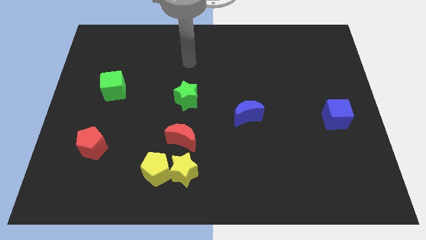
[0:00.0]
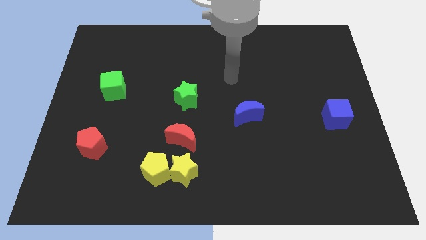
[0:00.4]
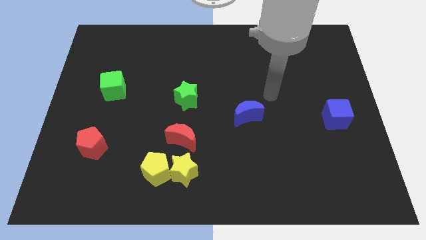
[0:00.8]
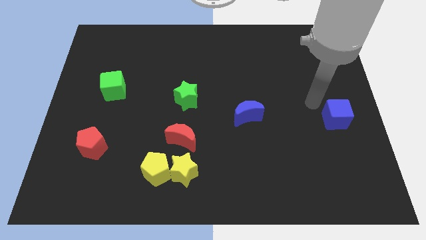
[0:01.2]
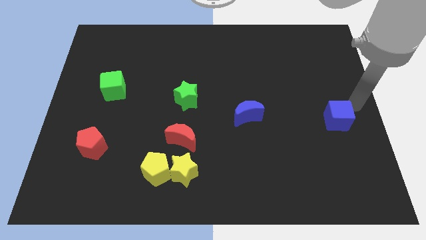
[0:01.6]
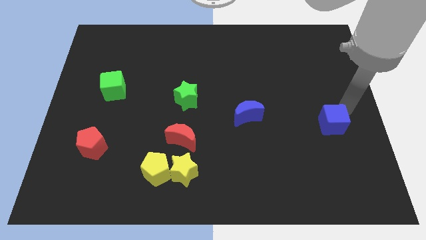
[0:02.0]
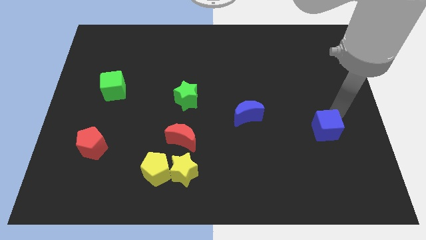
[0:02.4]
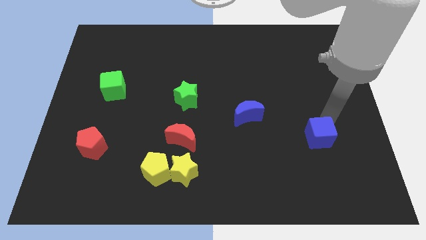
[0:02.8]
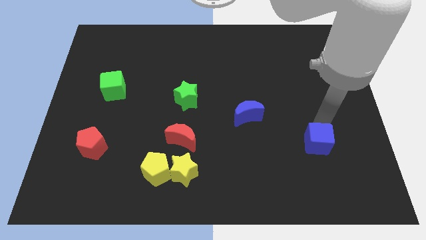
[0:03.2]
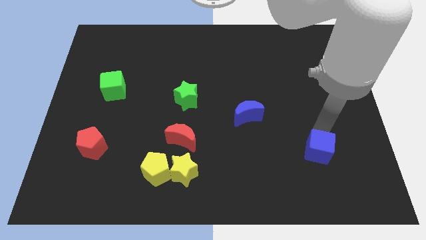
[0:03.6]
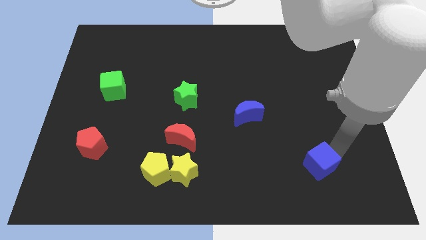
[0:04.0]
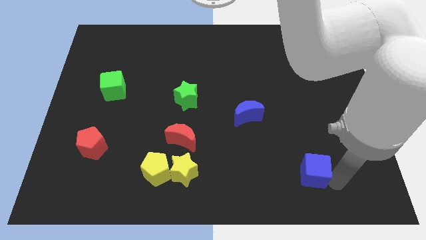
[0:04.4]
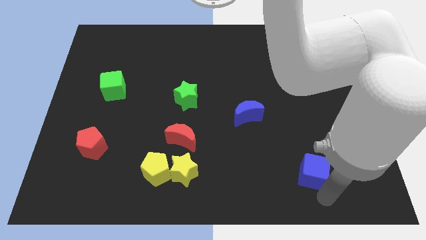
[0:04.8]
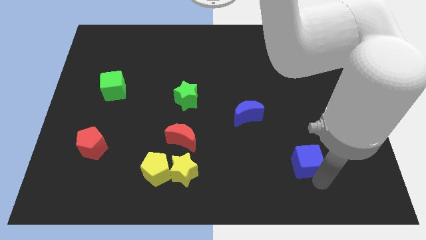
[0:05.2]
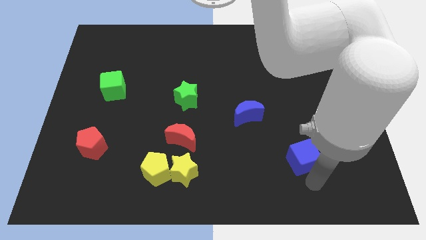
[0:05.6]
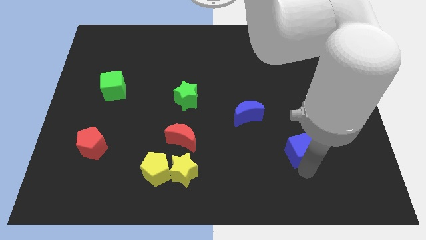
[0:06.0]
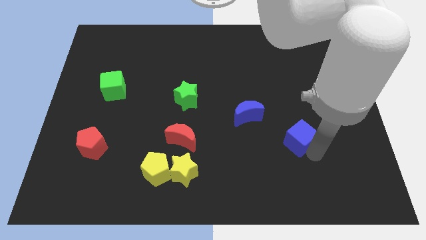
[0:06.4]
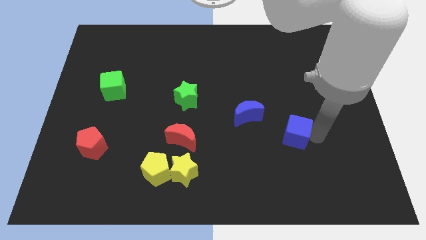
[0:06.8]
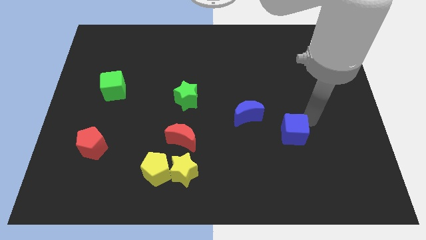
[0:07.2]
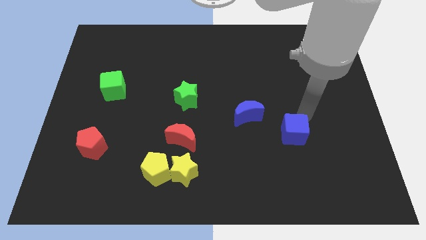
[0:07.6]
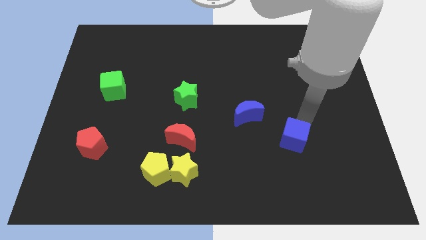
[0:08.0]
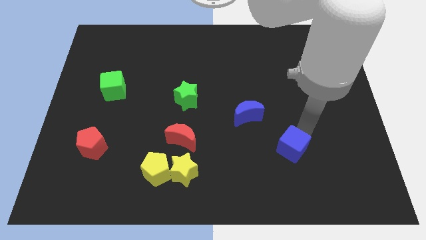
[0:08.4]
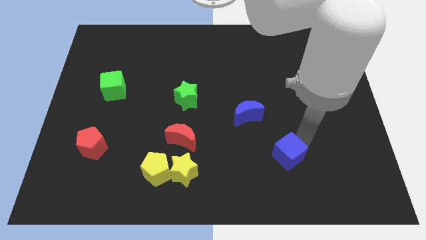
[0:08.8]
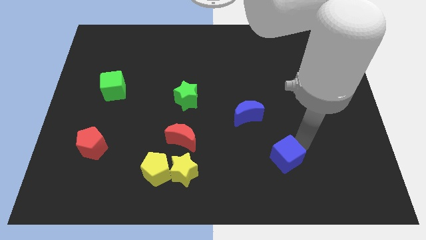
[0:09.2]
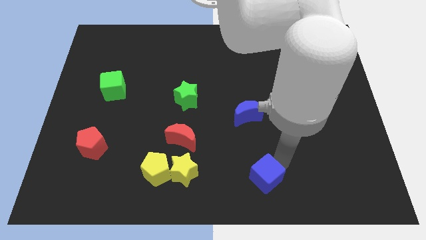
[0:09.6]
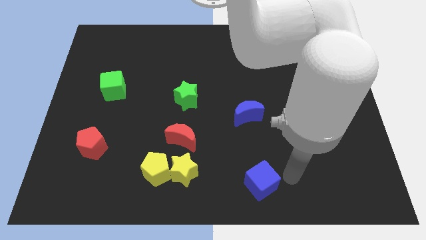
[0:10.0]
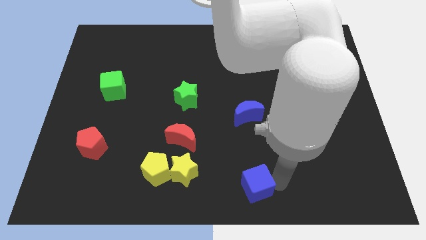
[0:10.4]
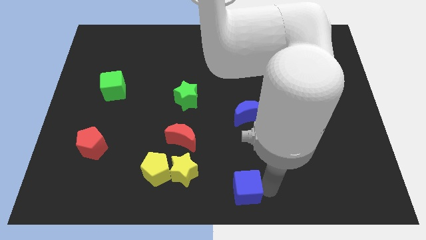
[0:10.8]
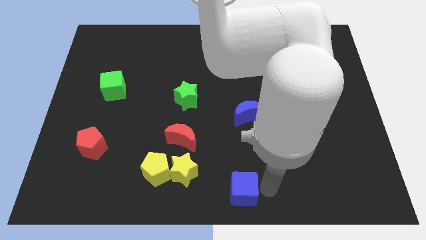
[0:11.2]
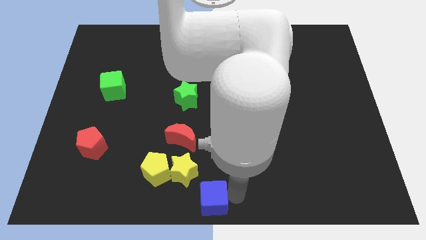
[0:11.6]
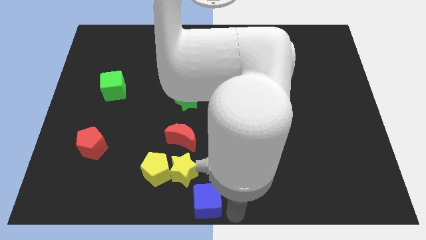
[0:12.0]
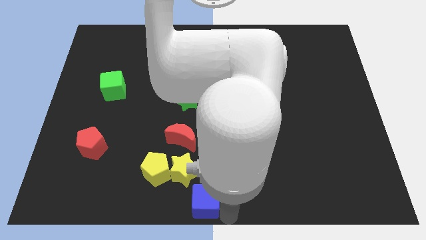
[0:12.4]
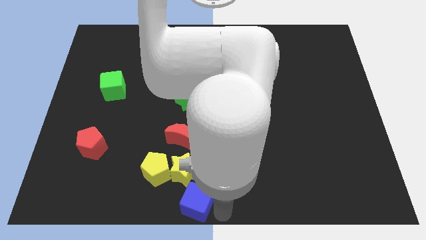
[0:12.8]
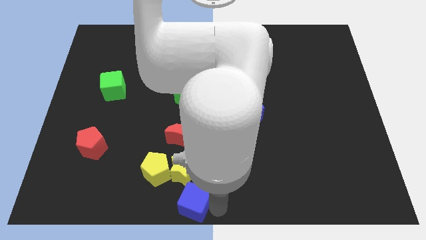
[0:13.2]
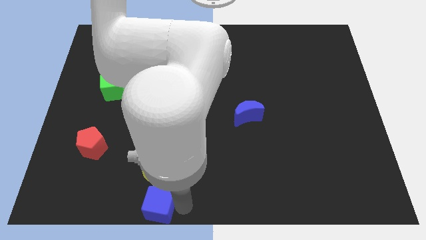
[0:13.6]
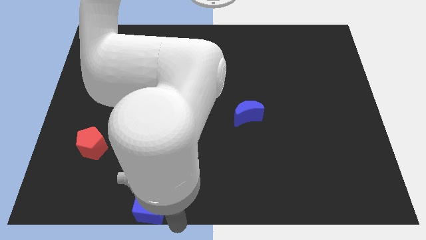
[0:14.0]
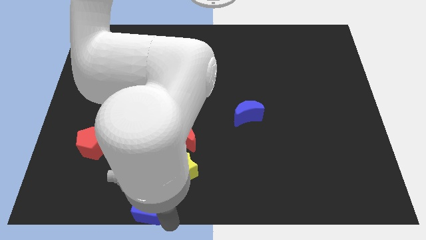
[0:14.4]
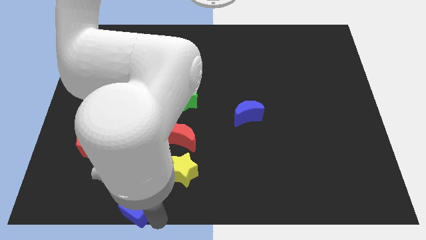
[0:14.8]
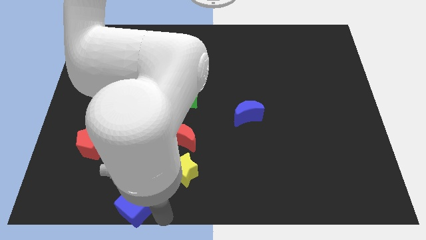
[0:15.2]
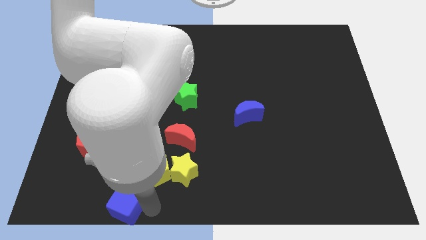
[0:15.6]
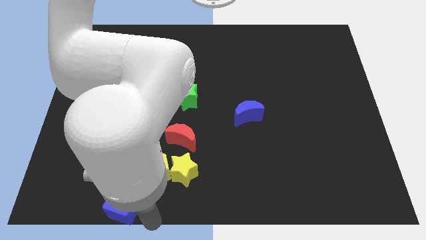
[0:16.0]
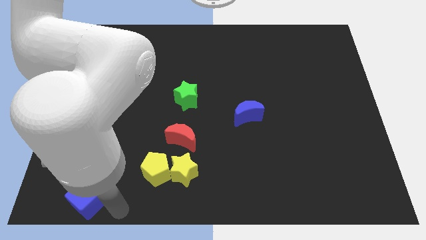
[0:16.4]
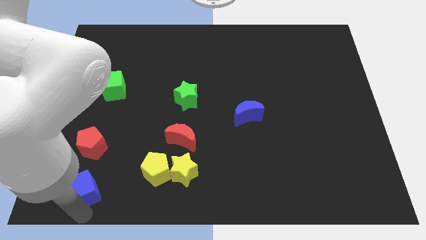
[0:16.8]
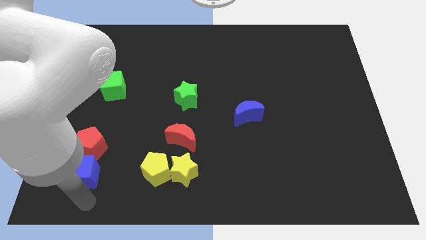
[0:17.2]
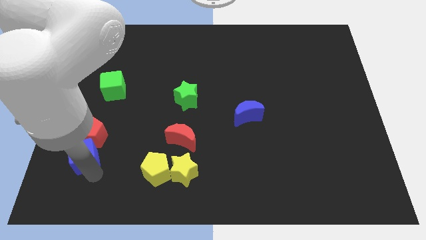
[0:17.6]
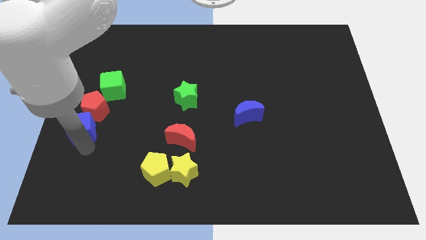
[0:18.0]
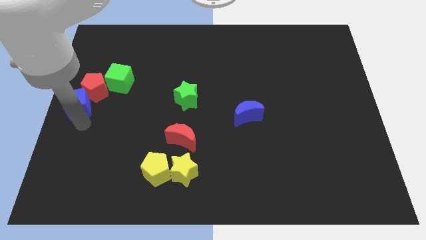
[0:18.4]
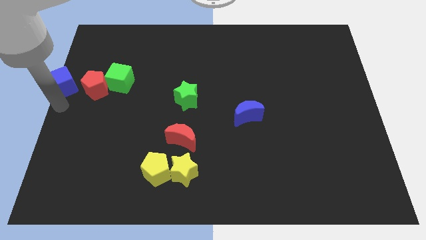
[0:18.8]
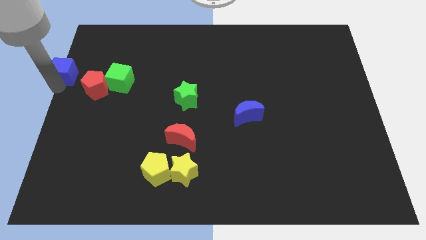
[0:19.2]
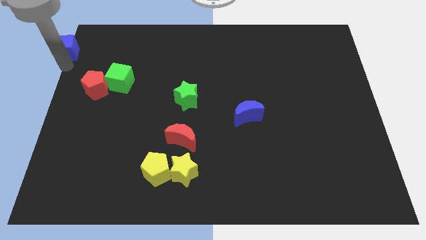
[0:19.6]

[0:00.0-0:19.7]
push the blue cube to the upper left corner

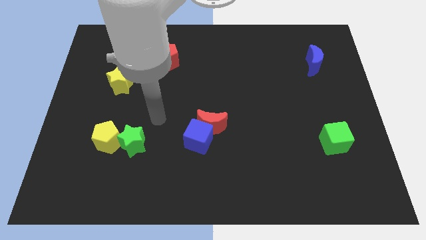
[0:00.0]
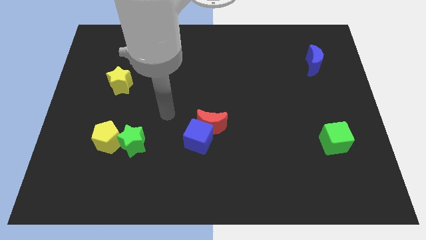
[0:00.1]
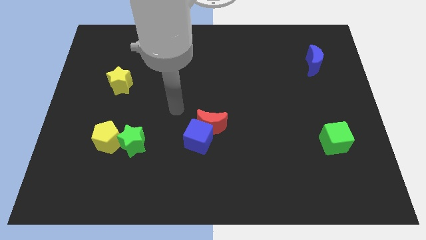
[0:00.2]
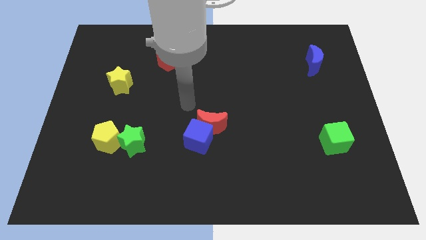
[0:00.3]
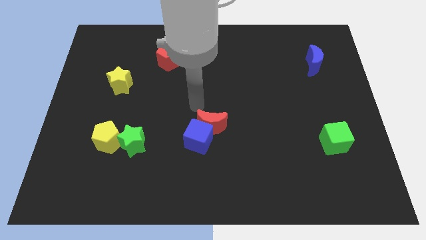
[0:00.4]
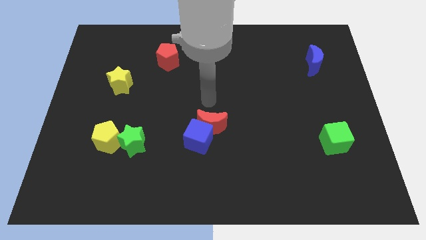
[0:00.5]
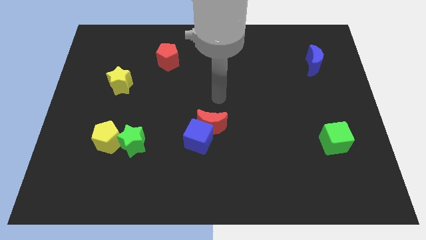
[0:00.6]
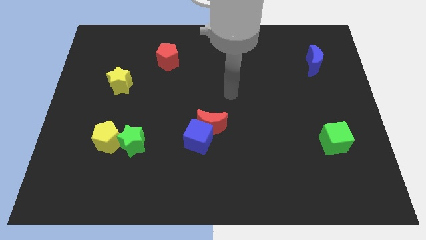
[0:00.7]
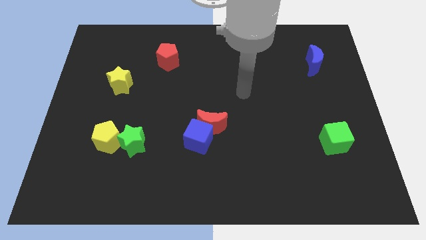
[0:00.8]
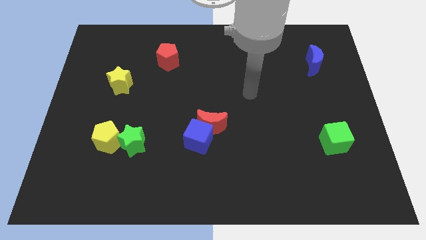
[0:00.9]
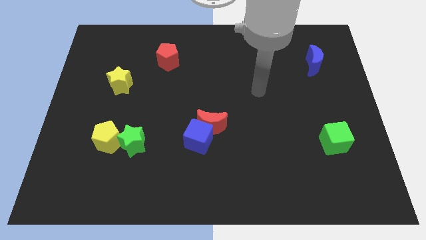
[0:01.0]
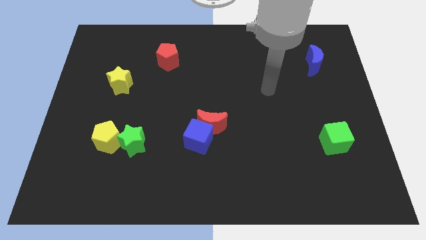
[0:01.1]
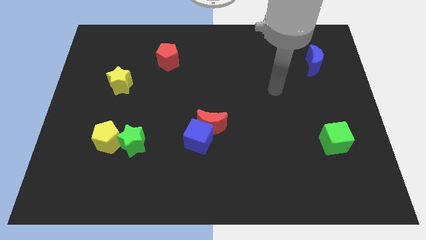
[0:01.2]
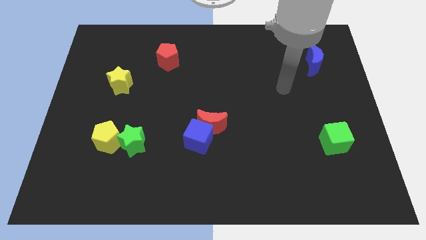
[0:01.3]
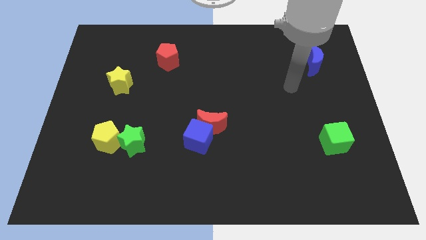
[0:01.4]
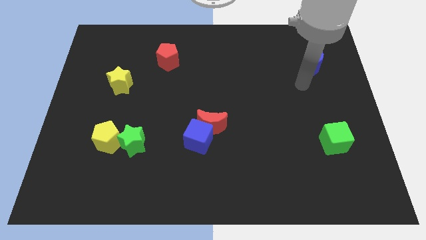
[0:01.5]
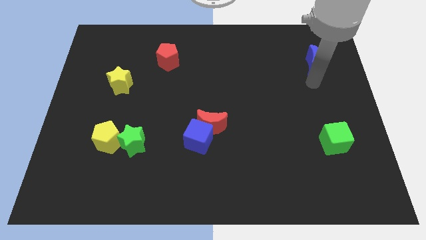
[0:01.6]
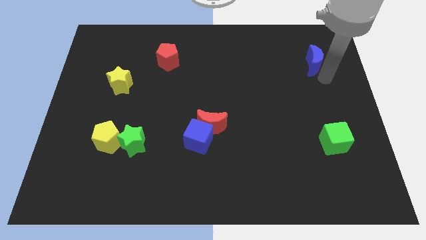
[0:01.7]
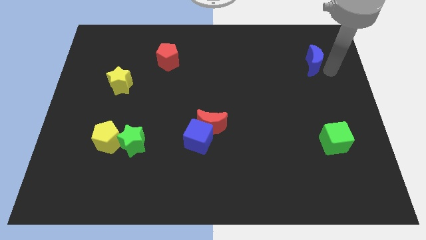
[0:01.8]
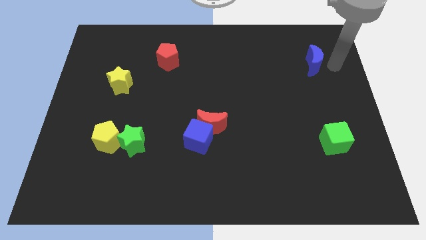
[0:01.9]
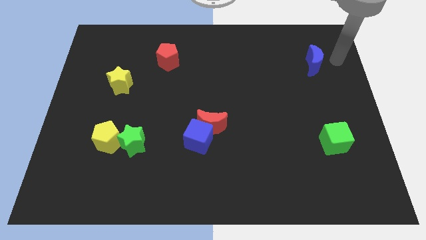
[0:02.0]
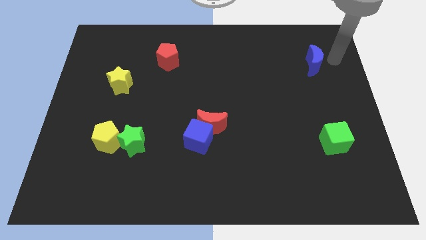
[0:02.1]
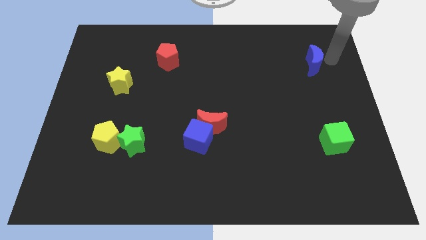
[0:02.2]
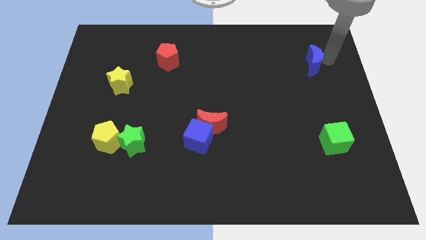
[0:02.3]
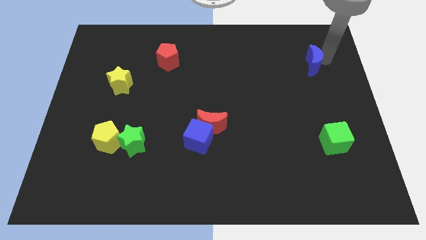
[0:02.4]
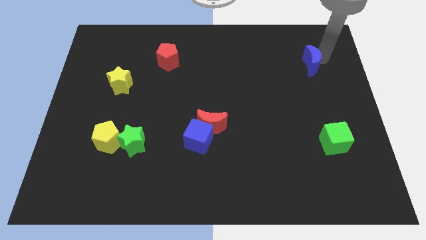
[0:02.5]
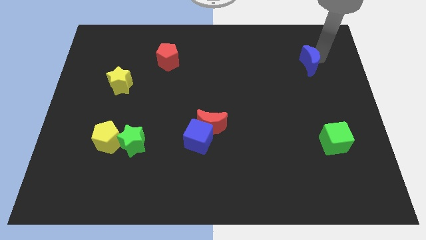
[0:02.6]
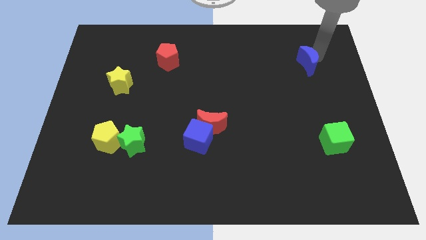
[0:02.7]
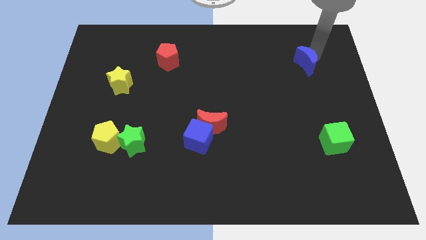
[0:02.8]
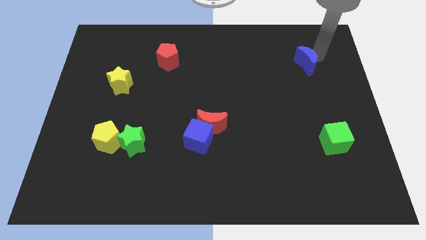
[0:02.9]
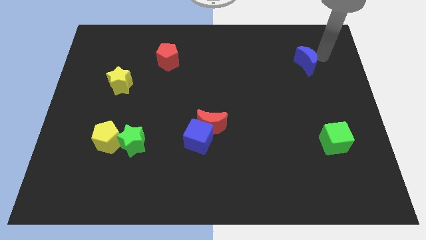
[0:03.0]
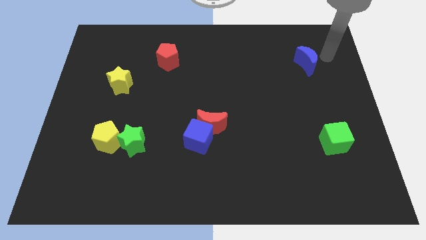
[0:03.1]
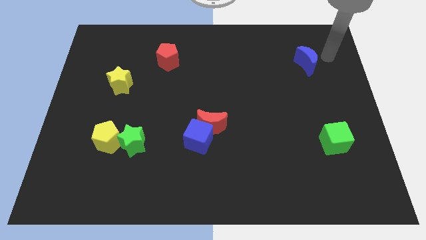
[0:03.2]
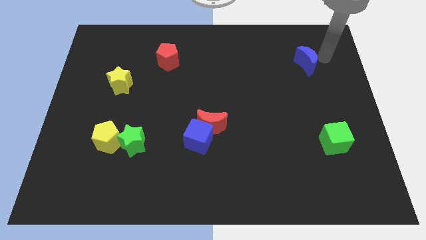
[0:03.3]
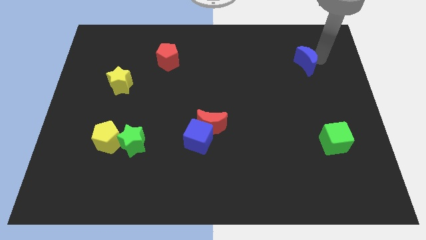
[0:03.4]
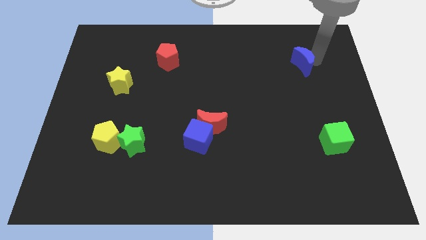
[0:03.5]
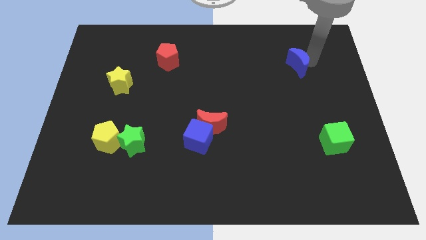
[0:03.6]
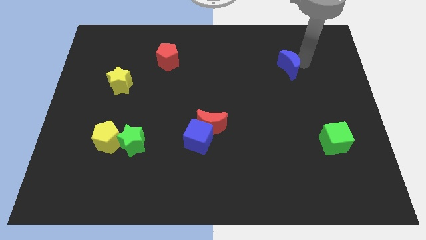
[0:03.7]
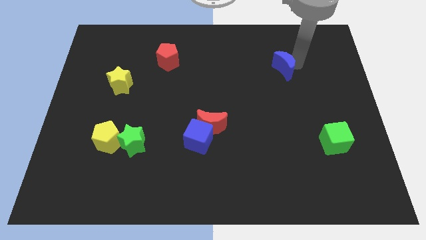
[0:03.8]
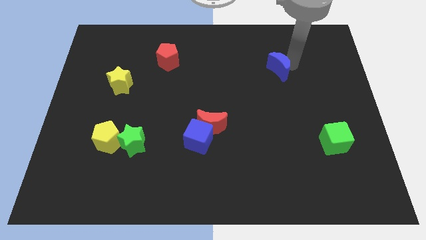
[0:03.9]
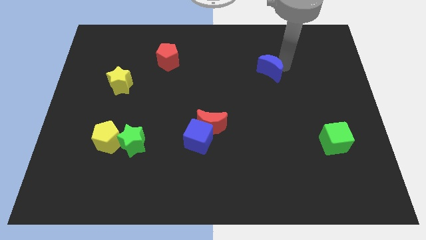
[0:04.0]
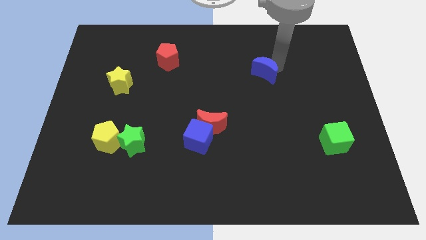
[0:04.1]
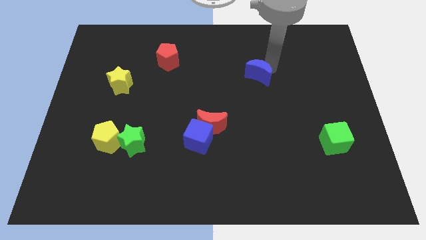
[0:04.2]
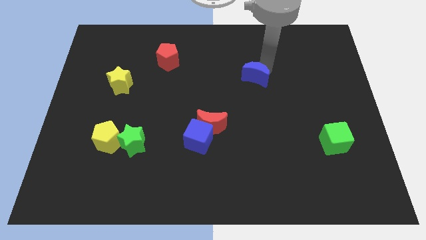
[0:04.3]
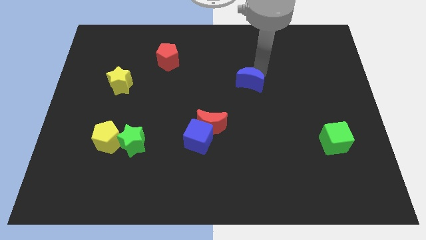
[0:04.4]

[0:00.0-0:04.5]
slide the blue moon to the center
